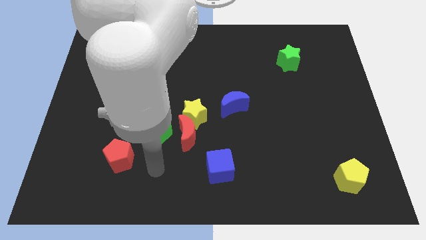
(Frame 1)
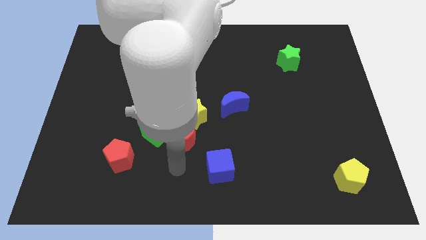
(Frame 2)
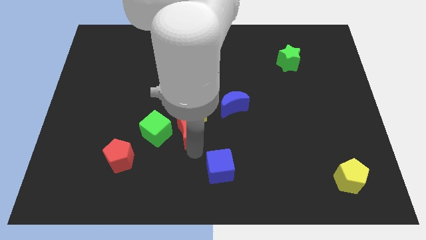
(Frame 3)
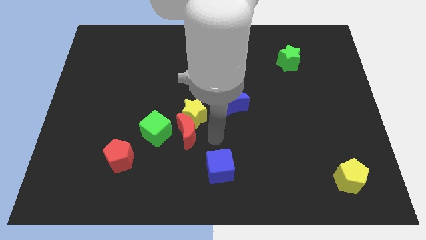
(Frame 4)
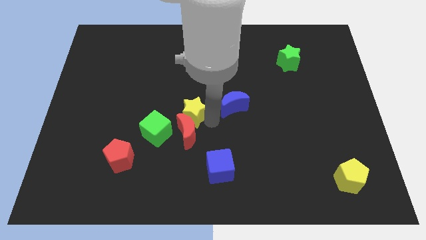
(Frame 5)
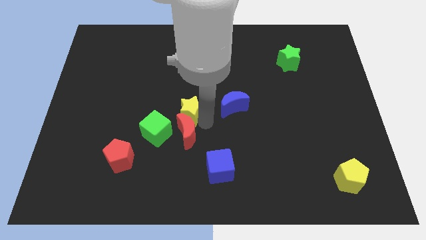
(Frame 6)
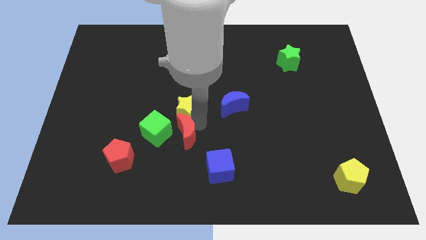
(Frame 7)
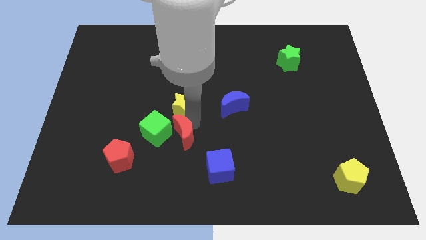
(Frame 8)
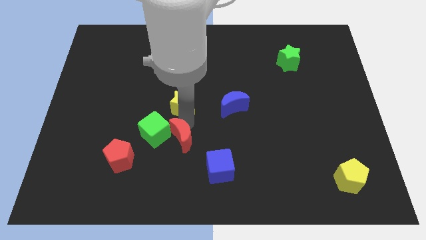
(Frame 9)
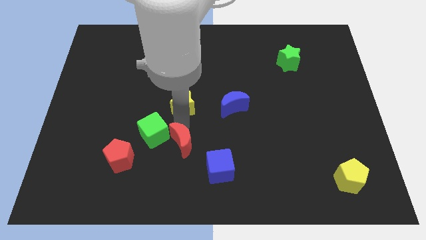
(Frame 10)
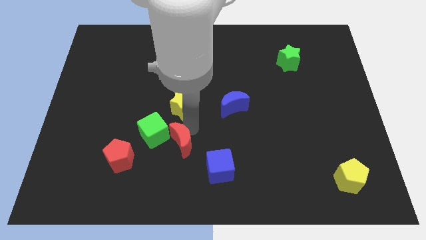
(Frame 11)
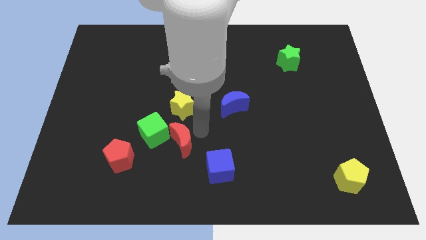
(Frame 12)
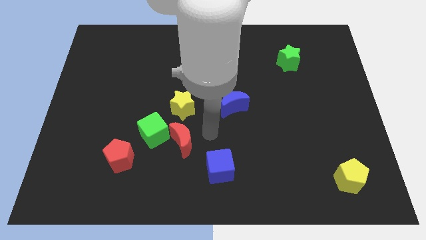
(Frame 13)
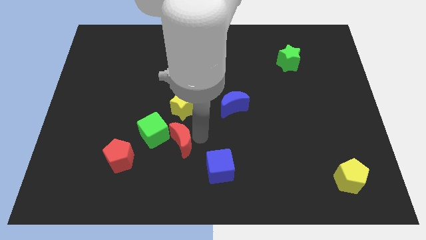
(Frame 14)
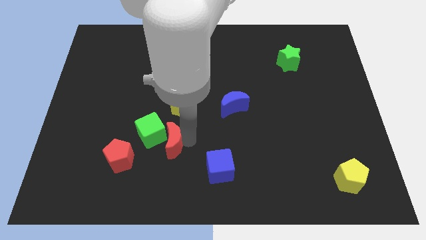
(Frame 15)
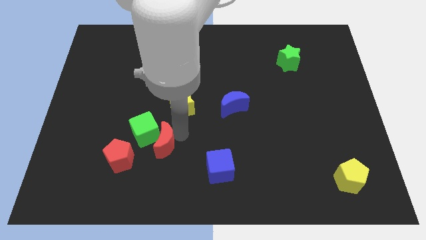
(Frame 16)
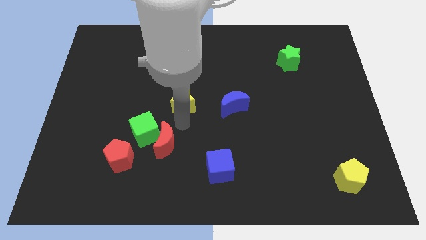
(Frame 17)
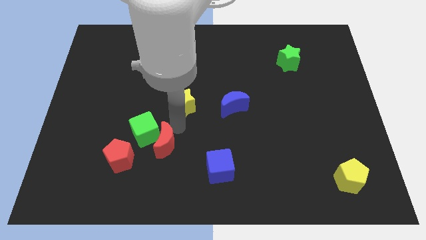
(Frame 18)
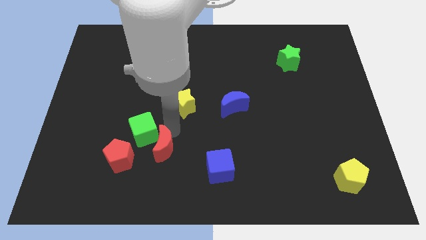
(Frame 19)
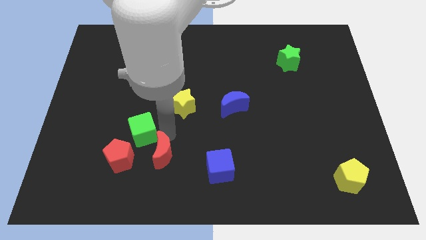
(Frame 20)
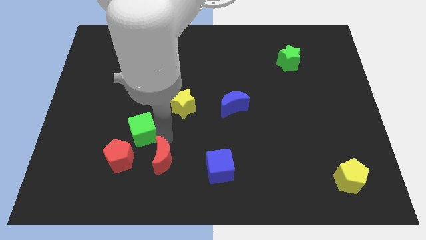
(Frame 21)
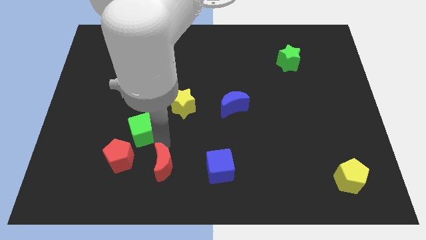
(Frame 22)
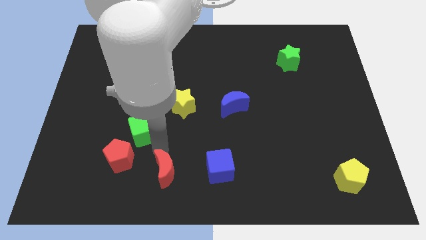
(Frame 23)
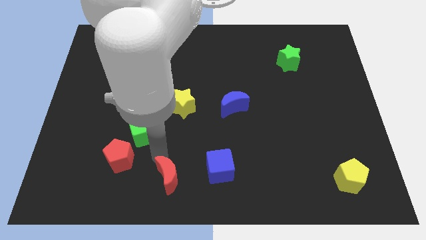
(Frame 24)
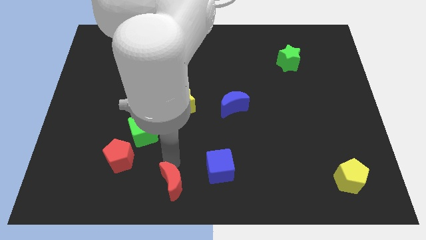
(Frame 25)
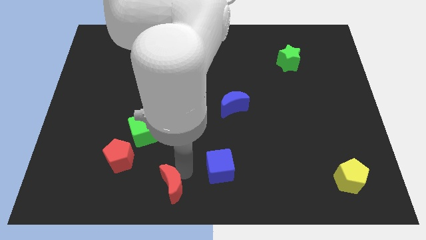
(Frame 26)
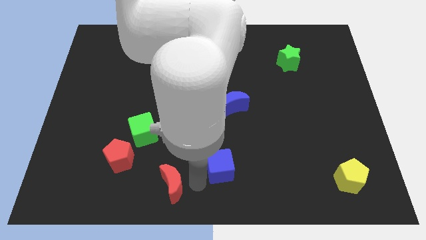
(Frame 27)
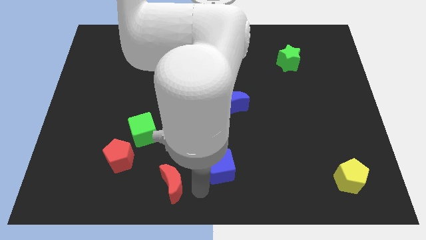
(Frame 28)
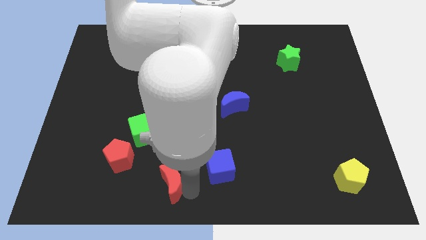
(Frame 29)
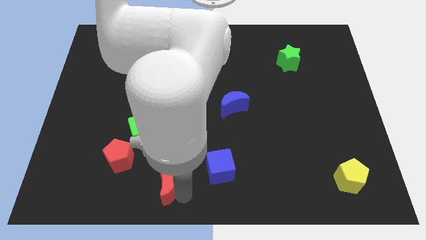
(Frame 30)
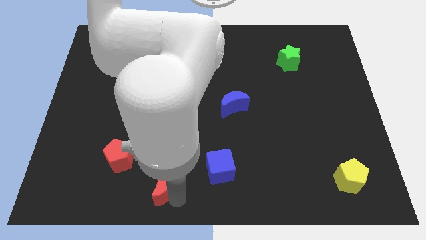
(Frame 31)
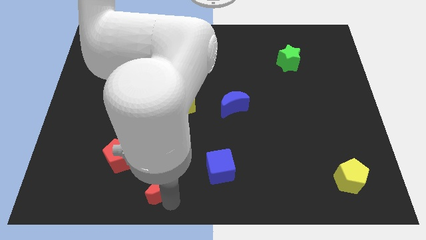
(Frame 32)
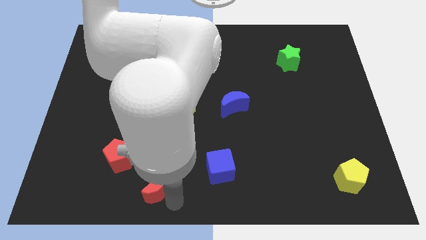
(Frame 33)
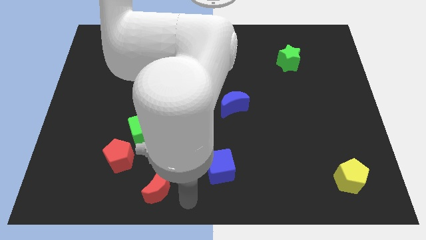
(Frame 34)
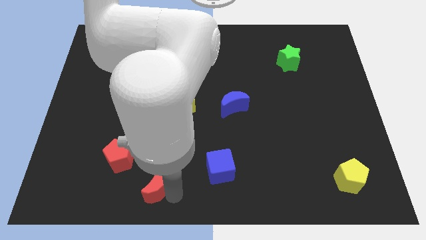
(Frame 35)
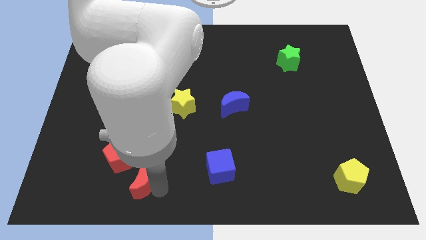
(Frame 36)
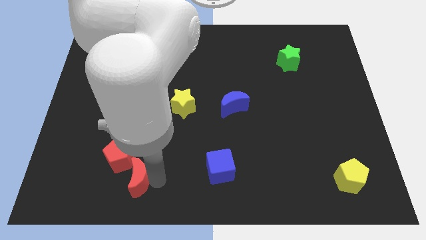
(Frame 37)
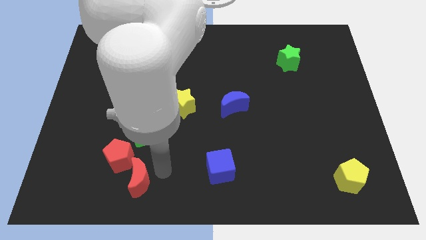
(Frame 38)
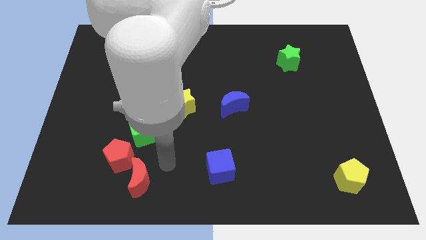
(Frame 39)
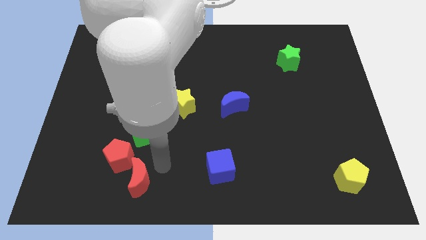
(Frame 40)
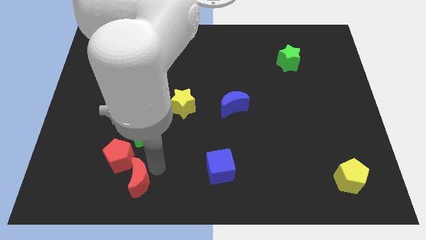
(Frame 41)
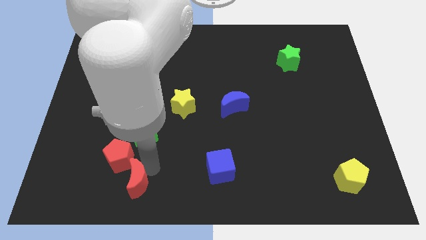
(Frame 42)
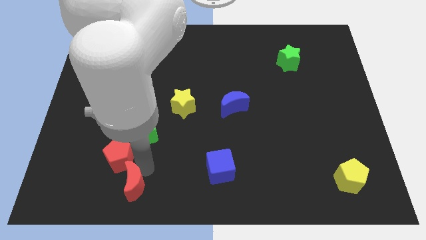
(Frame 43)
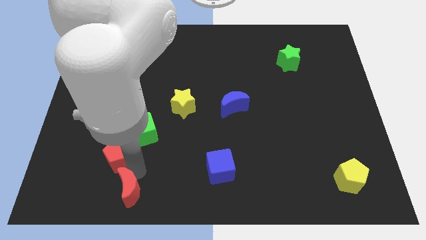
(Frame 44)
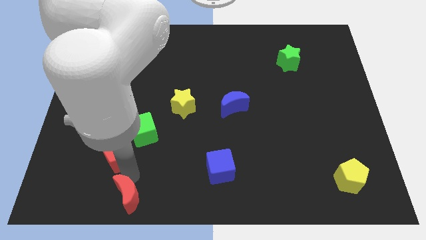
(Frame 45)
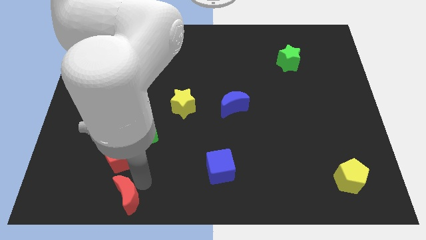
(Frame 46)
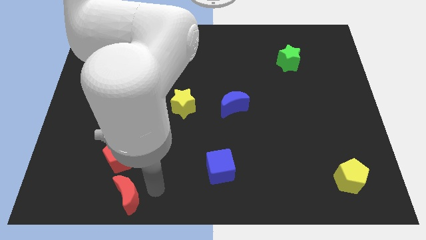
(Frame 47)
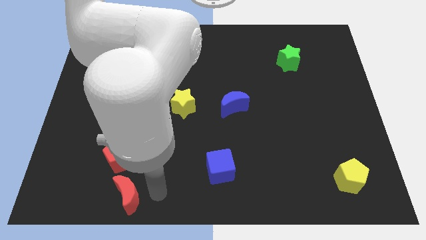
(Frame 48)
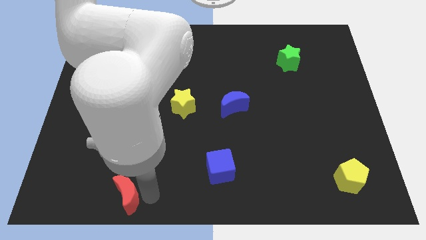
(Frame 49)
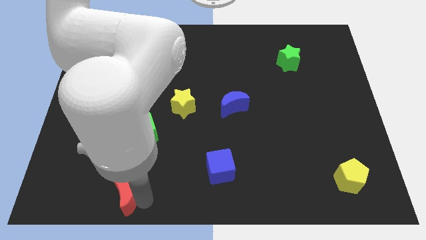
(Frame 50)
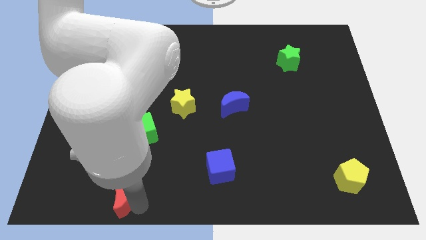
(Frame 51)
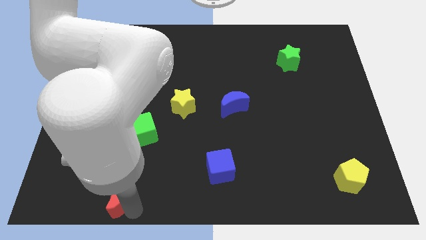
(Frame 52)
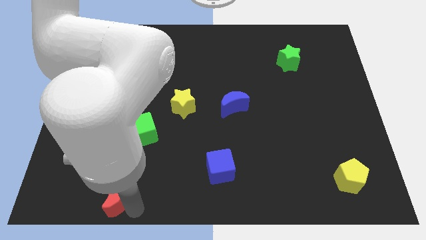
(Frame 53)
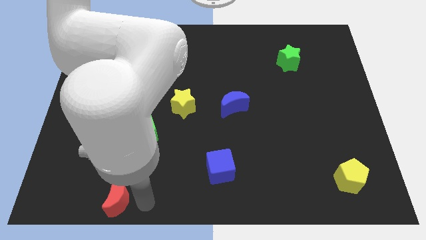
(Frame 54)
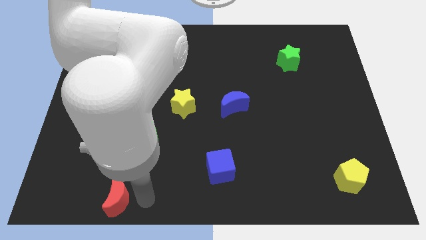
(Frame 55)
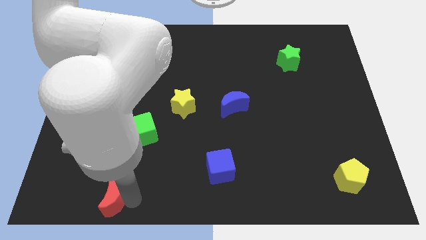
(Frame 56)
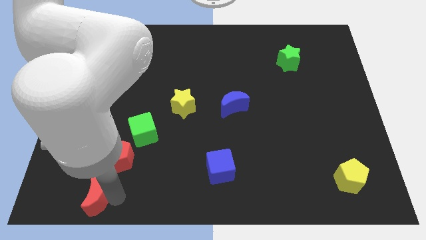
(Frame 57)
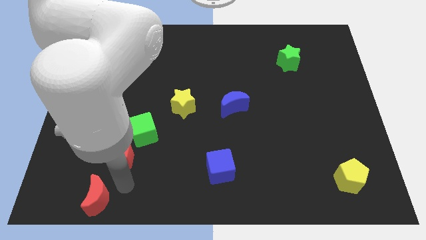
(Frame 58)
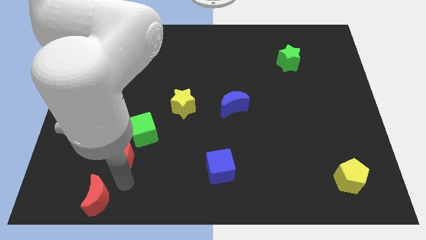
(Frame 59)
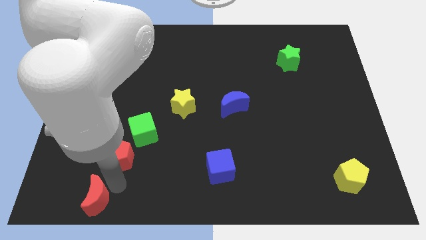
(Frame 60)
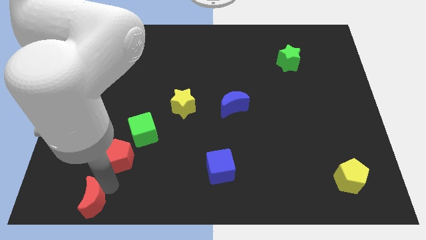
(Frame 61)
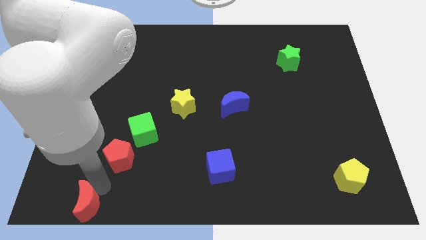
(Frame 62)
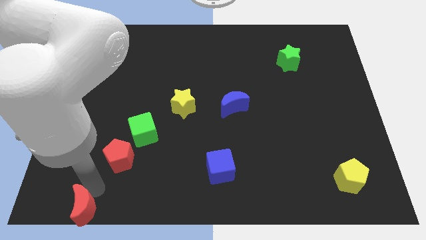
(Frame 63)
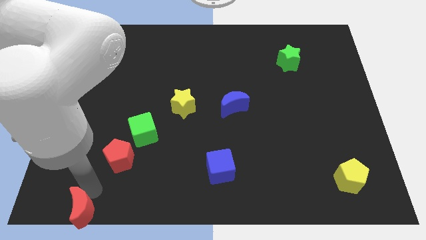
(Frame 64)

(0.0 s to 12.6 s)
slide the red moon to the bottom left of the board

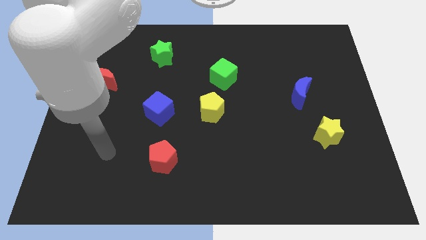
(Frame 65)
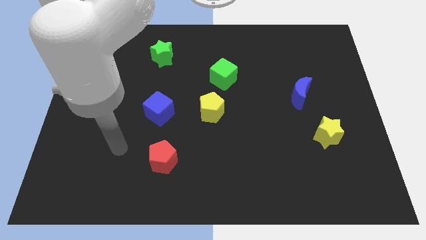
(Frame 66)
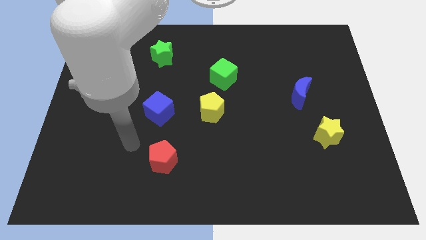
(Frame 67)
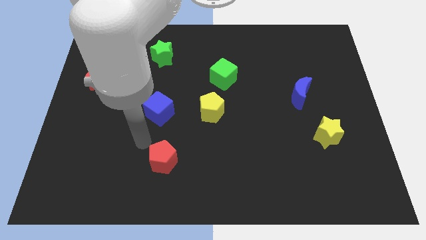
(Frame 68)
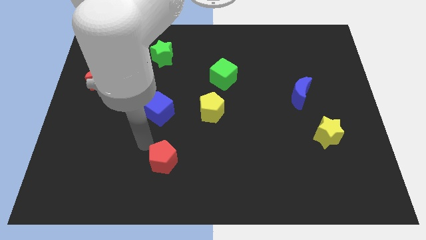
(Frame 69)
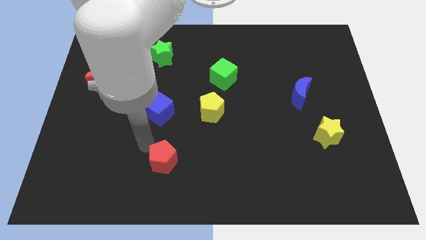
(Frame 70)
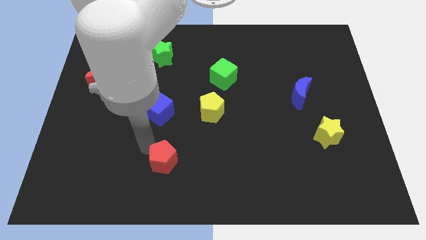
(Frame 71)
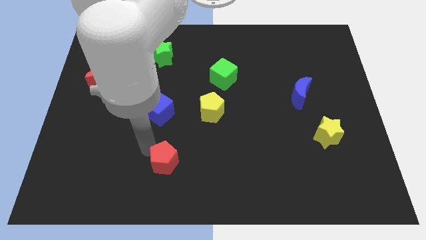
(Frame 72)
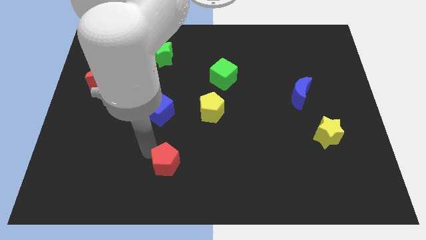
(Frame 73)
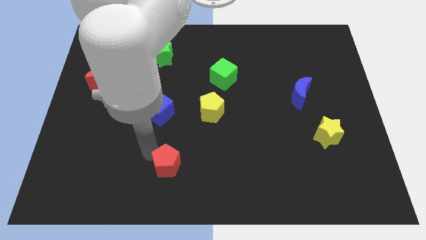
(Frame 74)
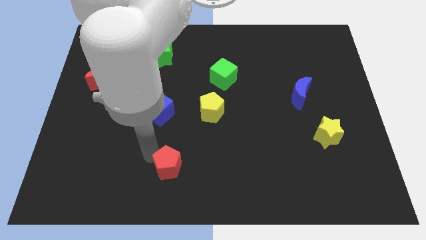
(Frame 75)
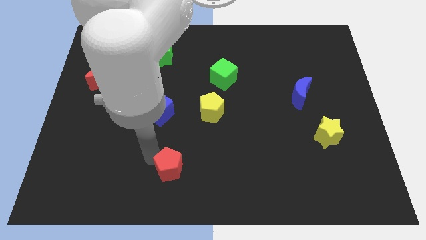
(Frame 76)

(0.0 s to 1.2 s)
put the red pentagon to the bottom
